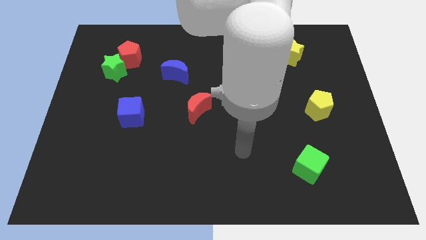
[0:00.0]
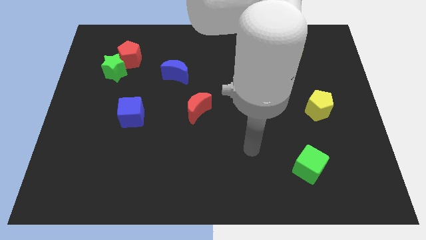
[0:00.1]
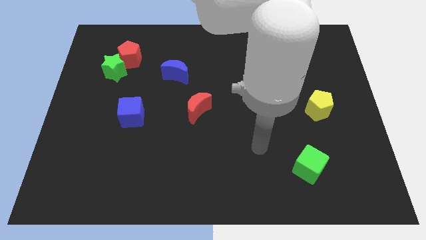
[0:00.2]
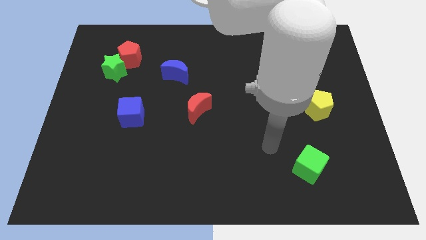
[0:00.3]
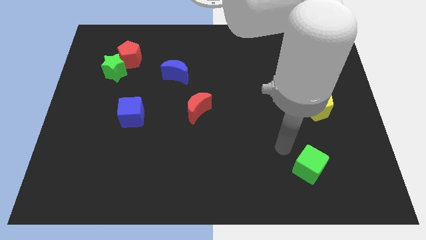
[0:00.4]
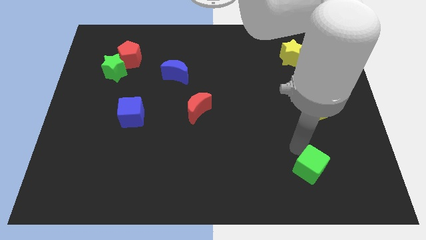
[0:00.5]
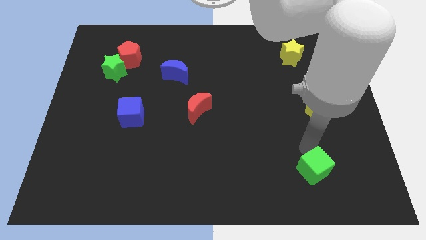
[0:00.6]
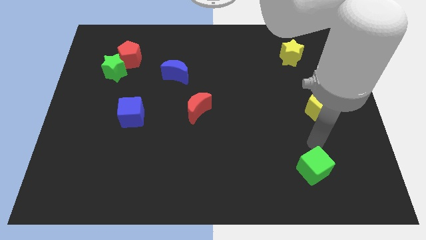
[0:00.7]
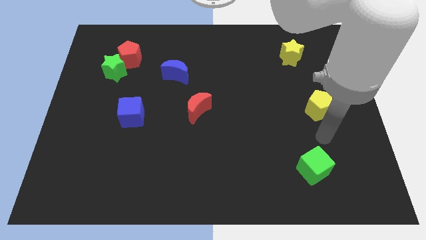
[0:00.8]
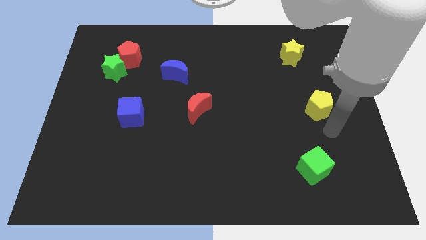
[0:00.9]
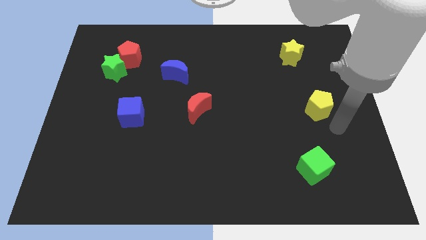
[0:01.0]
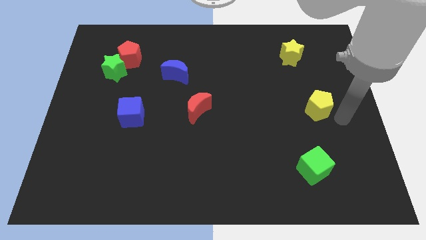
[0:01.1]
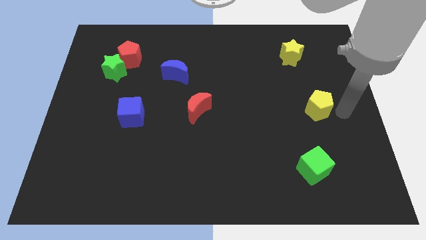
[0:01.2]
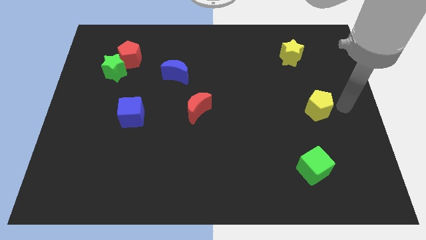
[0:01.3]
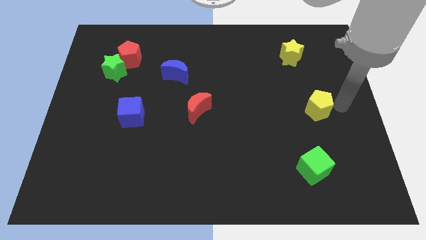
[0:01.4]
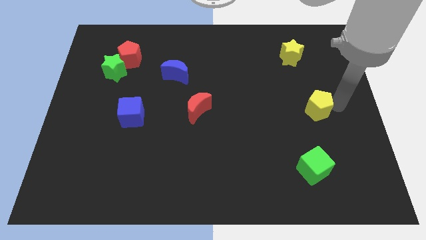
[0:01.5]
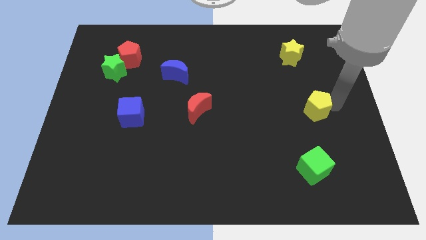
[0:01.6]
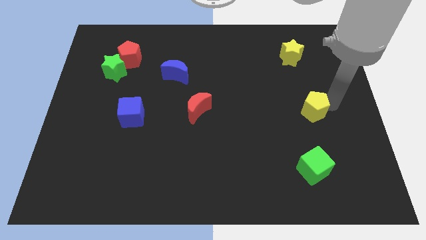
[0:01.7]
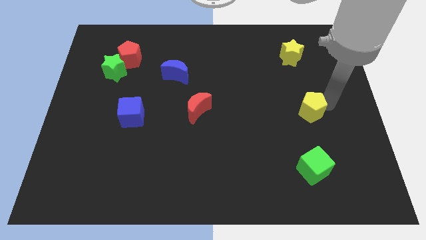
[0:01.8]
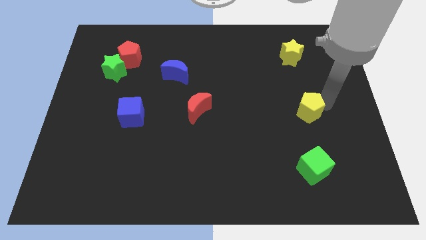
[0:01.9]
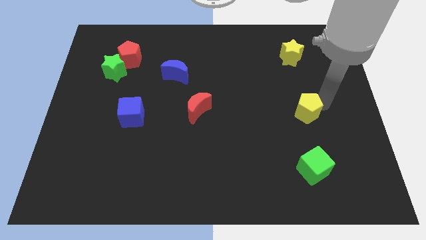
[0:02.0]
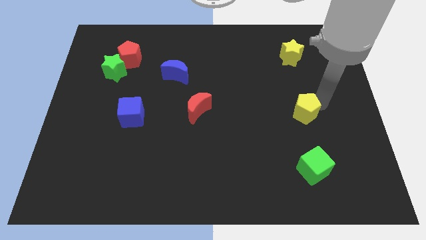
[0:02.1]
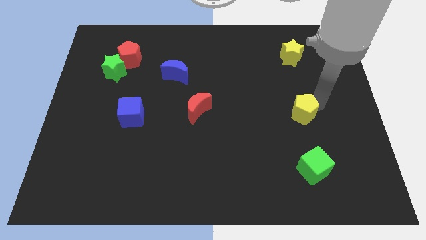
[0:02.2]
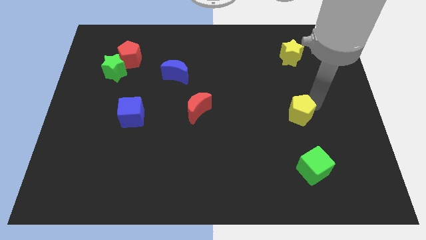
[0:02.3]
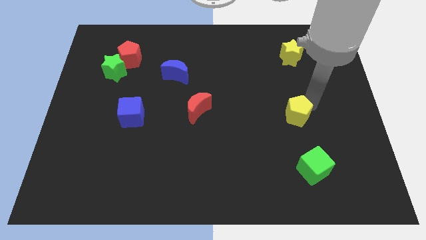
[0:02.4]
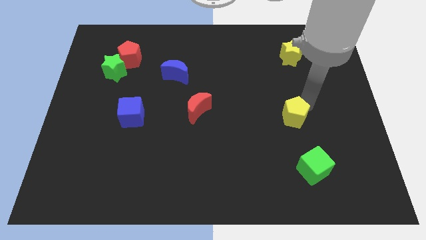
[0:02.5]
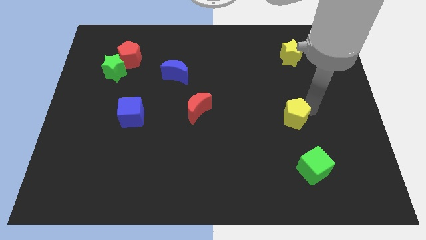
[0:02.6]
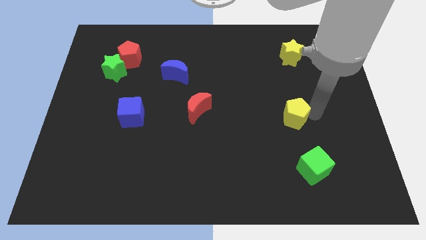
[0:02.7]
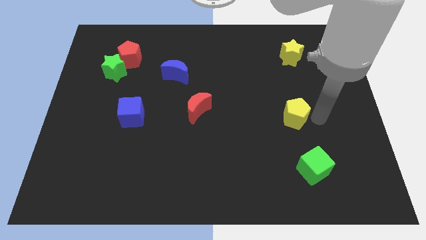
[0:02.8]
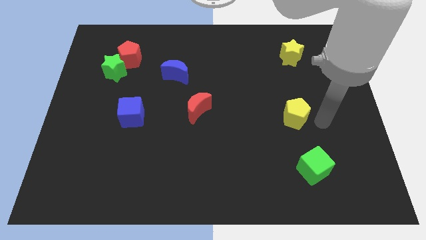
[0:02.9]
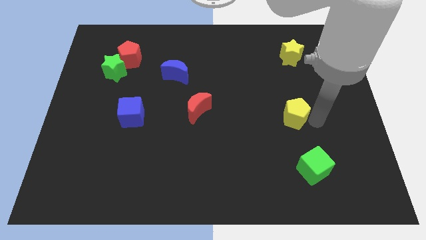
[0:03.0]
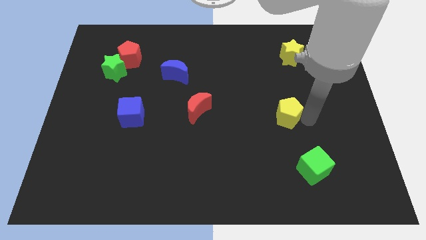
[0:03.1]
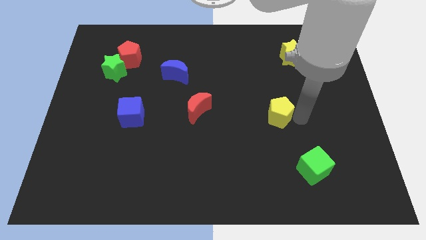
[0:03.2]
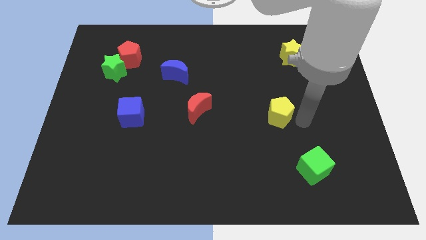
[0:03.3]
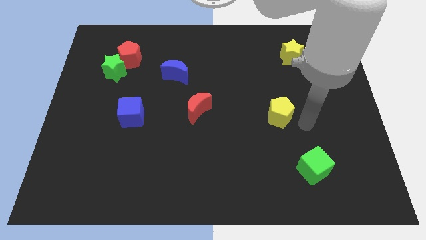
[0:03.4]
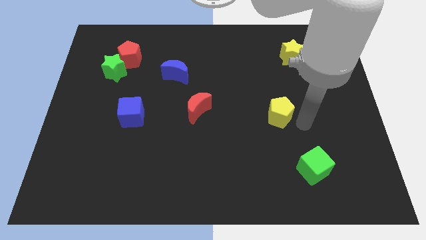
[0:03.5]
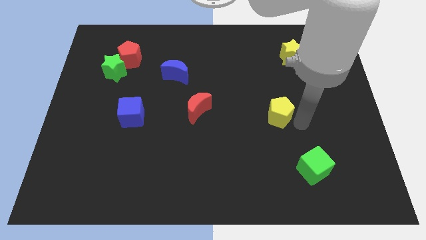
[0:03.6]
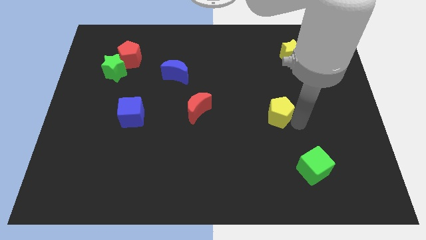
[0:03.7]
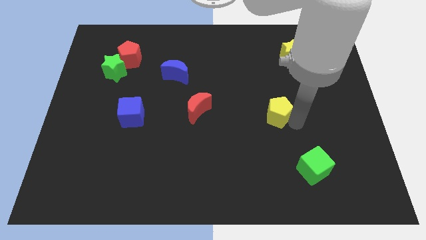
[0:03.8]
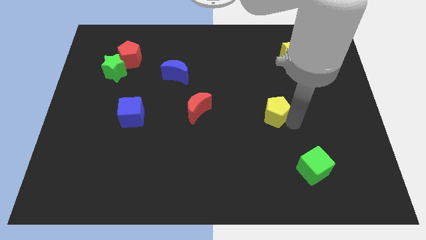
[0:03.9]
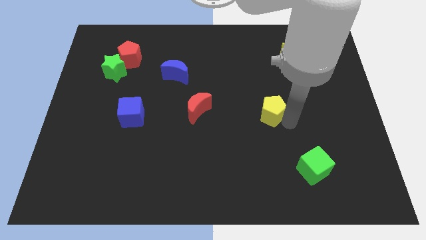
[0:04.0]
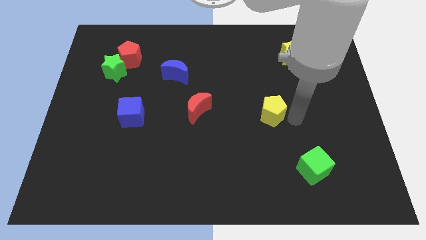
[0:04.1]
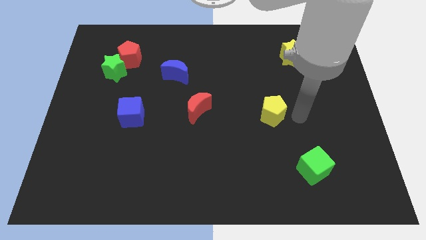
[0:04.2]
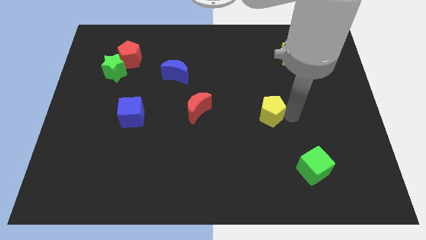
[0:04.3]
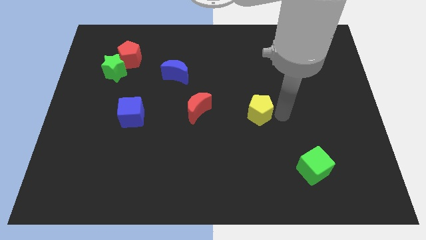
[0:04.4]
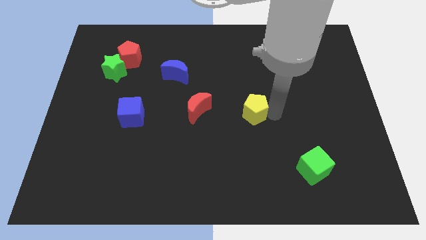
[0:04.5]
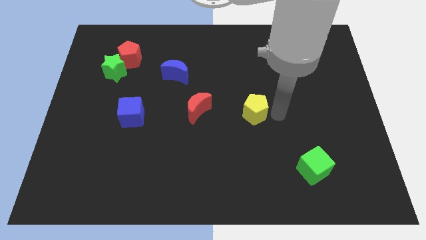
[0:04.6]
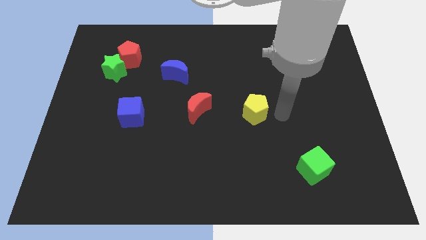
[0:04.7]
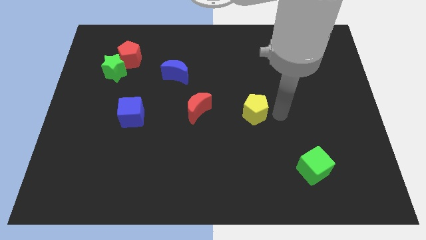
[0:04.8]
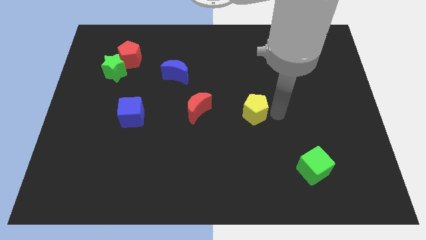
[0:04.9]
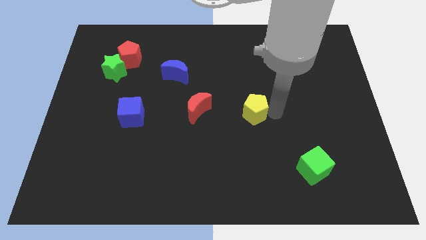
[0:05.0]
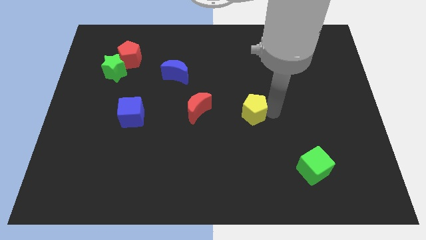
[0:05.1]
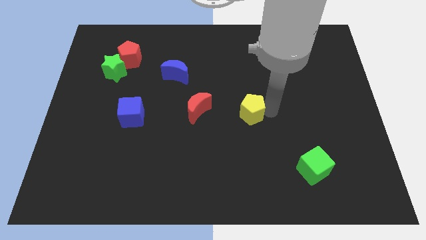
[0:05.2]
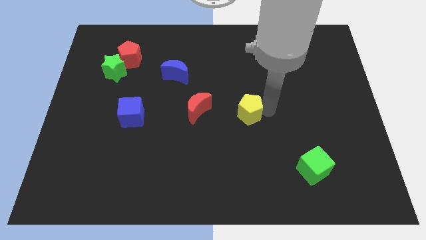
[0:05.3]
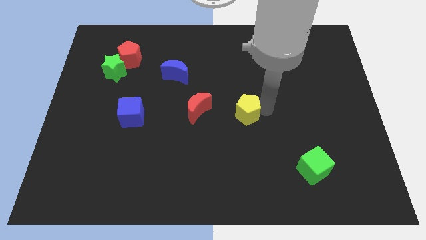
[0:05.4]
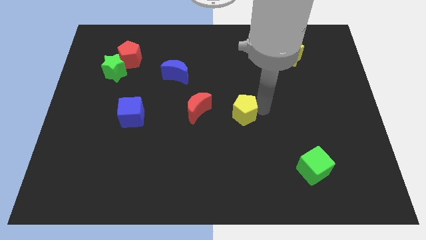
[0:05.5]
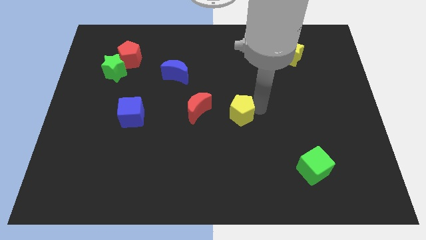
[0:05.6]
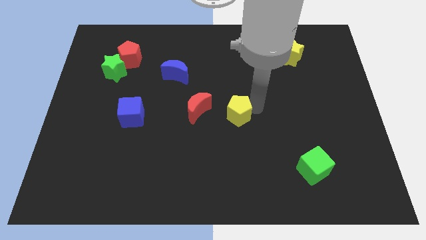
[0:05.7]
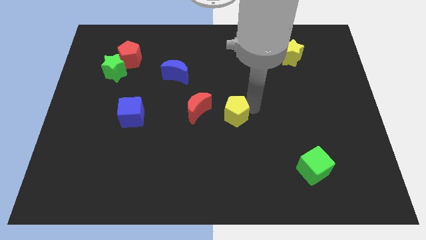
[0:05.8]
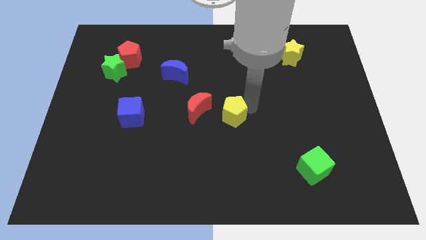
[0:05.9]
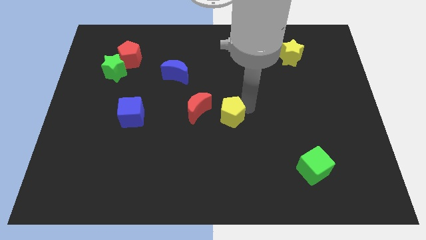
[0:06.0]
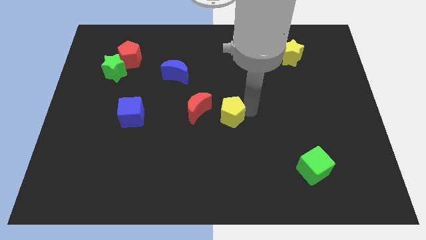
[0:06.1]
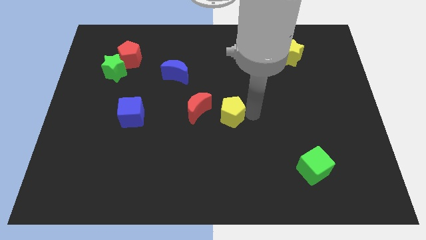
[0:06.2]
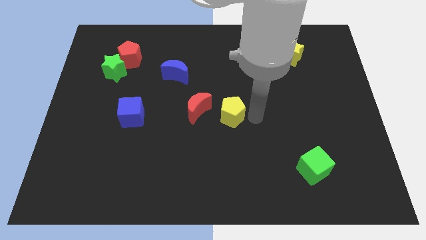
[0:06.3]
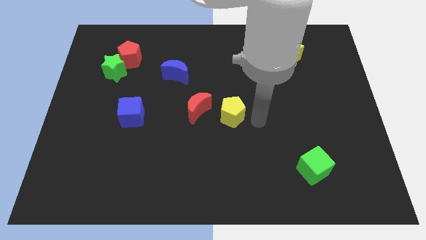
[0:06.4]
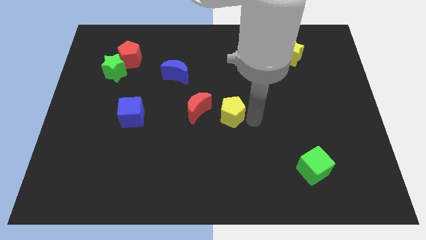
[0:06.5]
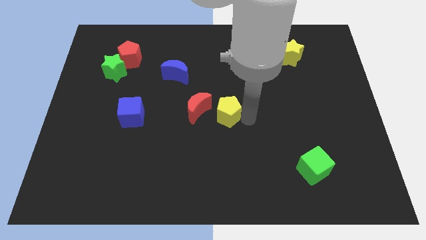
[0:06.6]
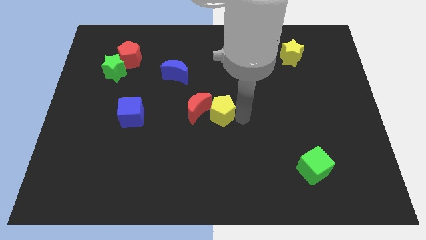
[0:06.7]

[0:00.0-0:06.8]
push the yellow pentagon close to the red moon

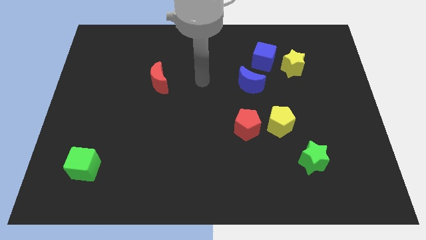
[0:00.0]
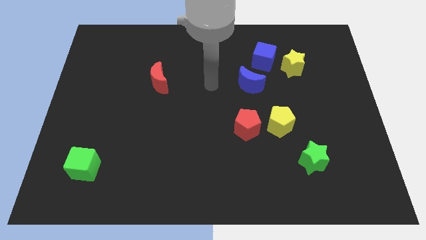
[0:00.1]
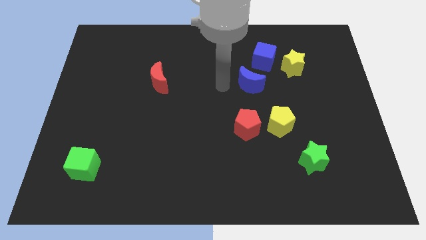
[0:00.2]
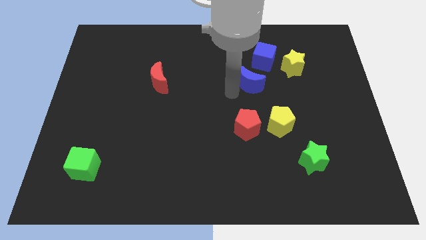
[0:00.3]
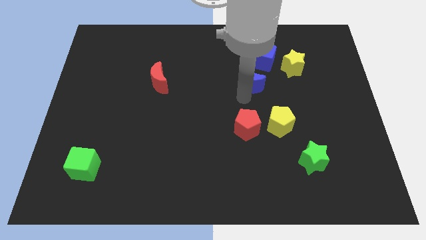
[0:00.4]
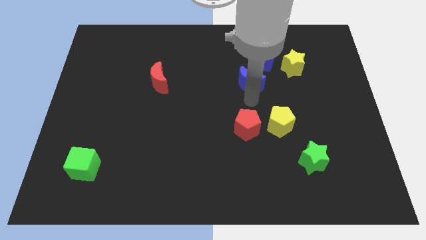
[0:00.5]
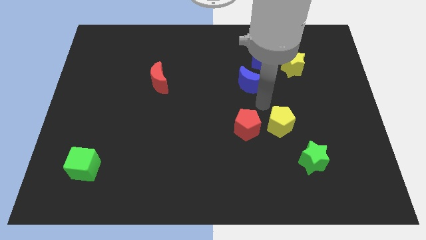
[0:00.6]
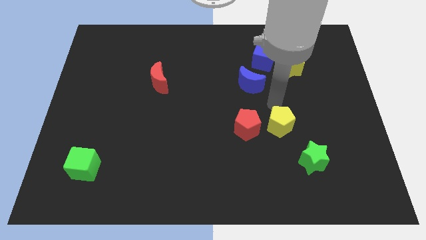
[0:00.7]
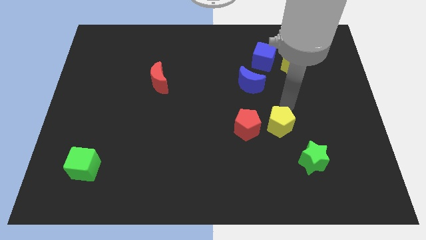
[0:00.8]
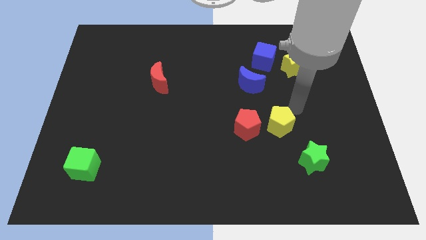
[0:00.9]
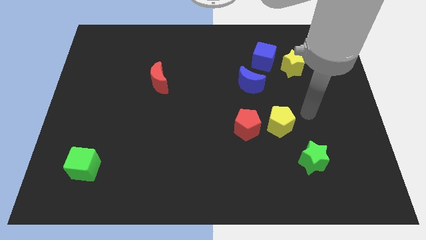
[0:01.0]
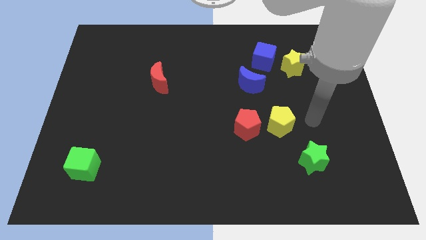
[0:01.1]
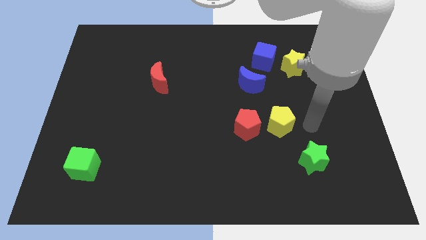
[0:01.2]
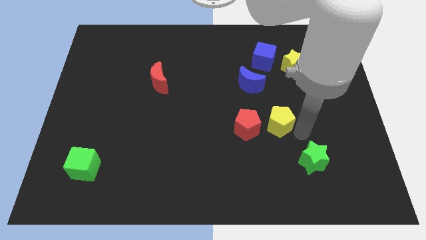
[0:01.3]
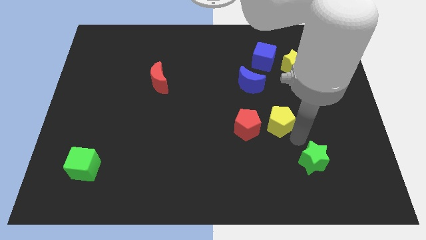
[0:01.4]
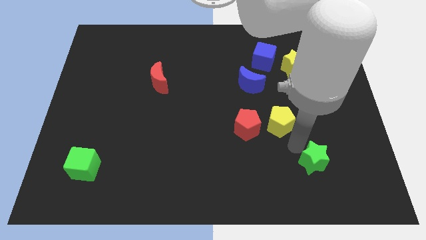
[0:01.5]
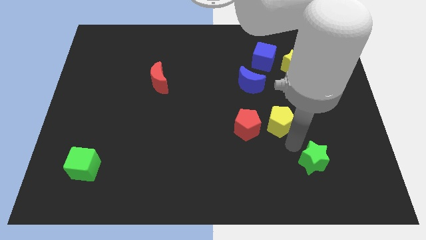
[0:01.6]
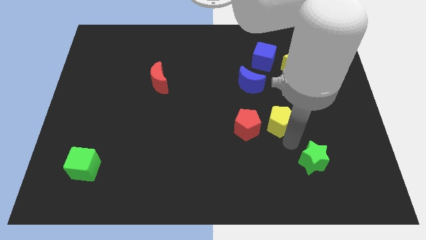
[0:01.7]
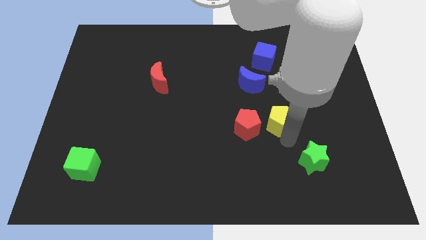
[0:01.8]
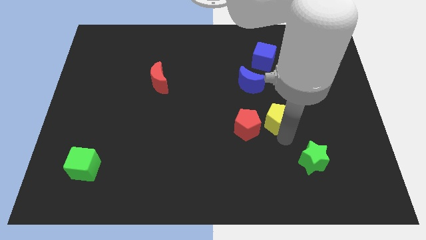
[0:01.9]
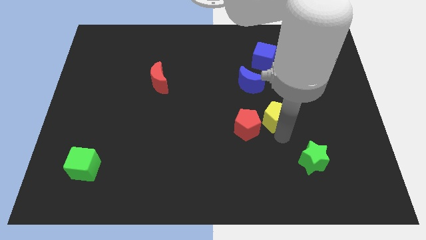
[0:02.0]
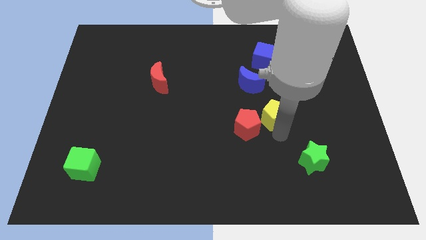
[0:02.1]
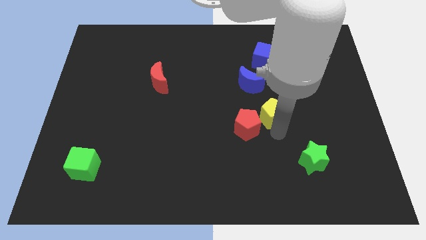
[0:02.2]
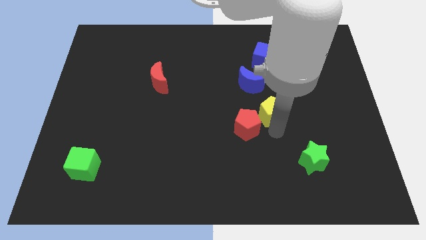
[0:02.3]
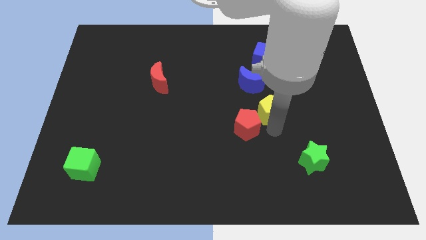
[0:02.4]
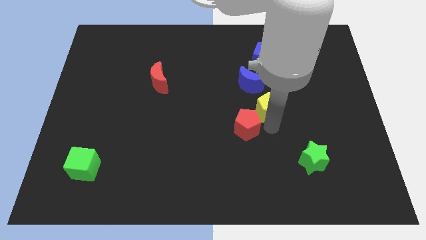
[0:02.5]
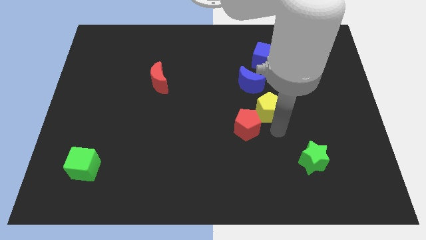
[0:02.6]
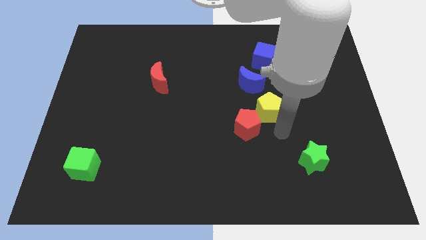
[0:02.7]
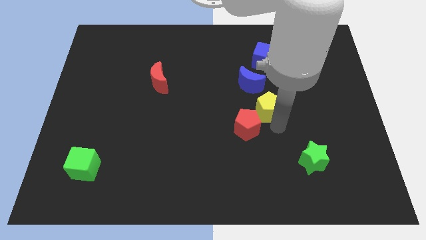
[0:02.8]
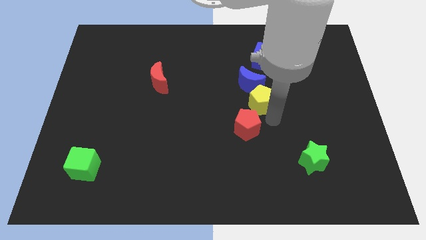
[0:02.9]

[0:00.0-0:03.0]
slide the yellow pentagon next to the blue moon
